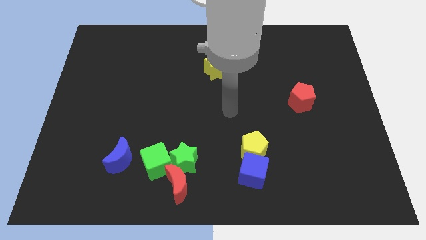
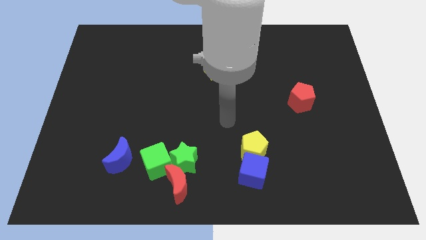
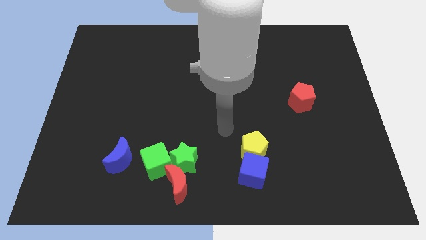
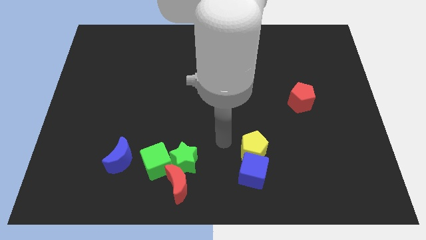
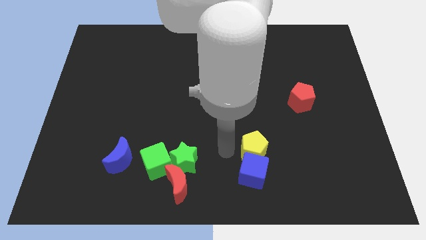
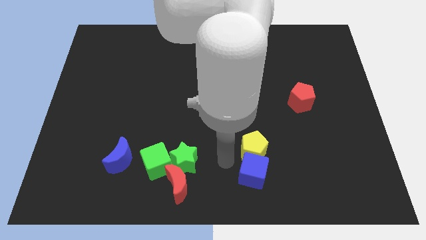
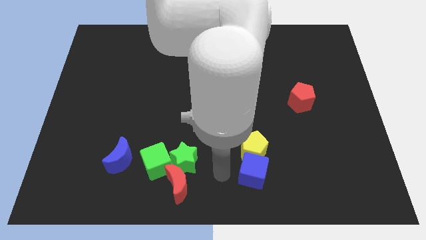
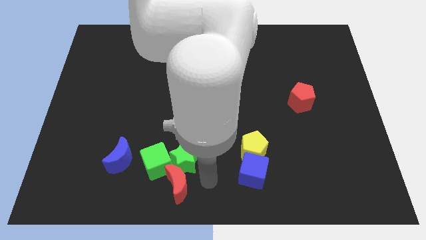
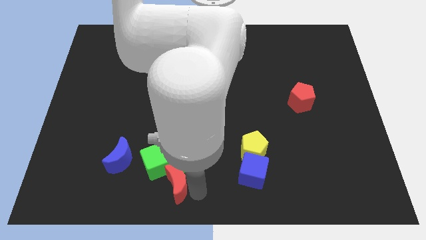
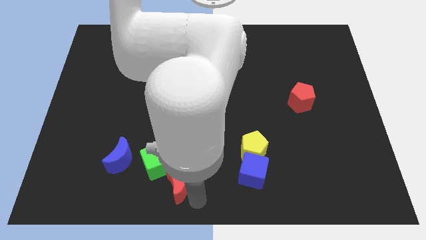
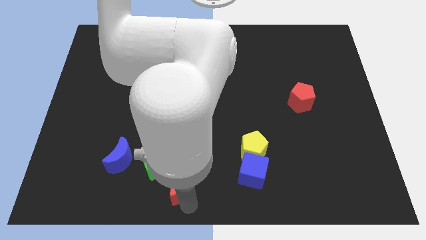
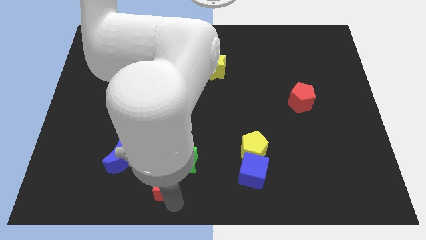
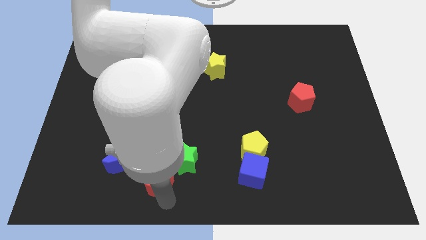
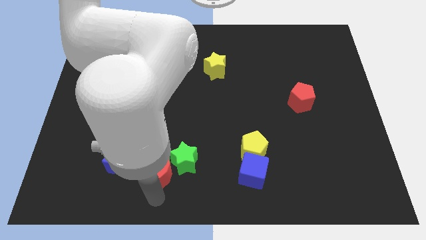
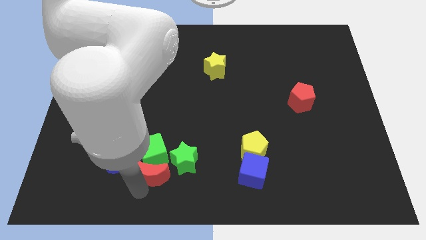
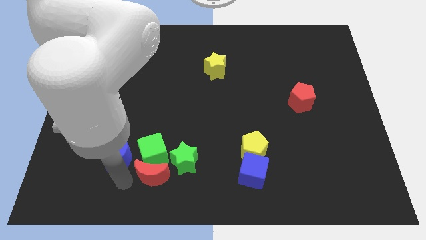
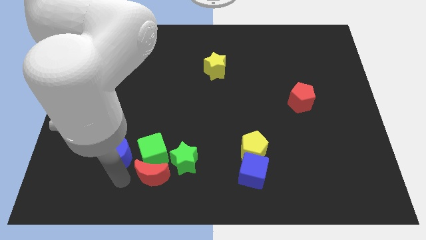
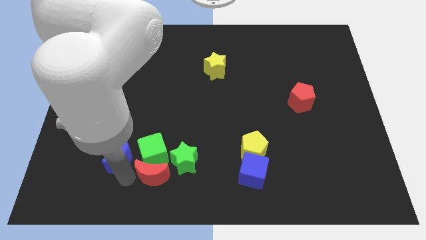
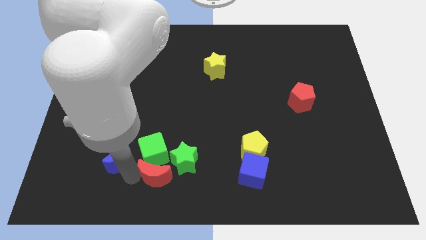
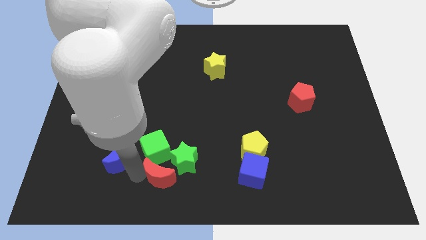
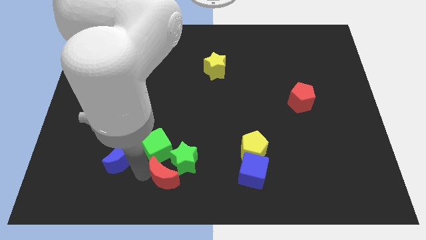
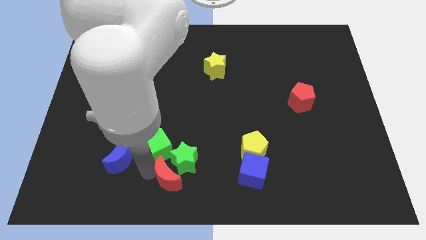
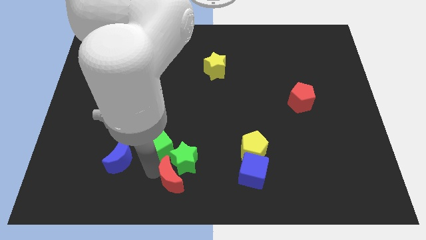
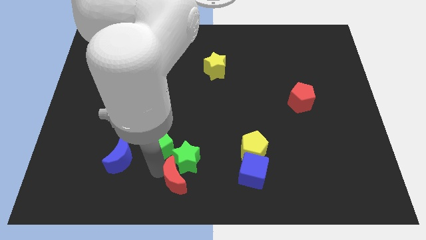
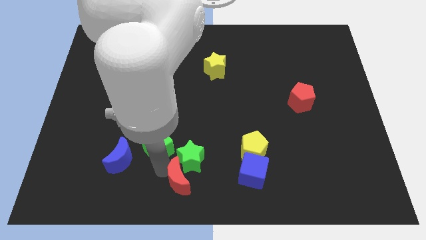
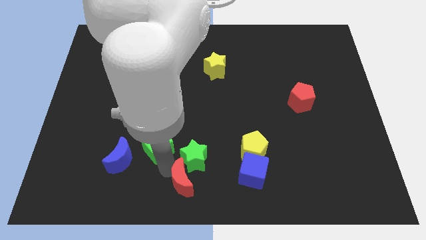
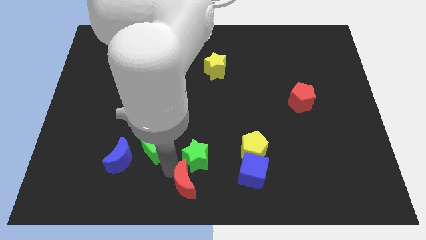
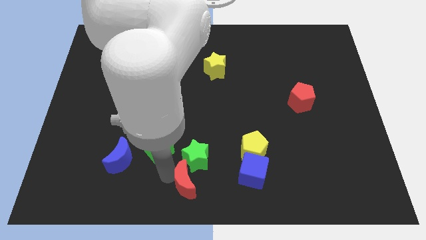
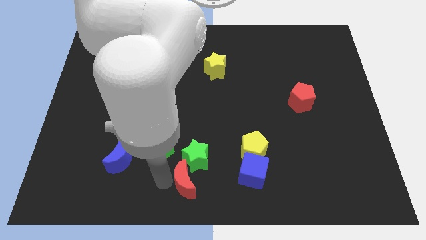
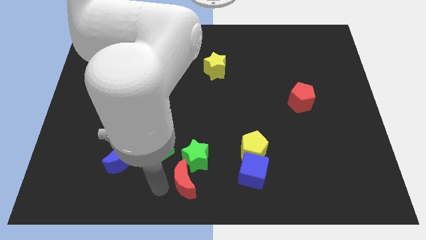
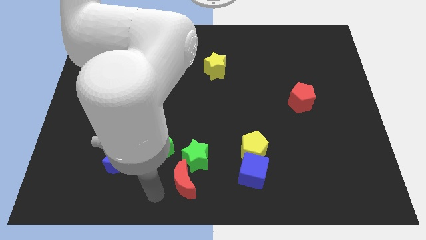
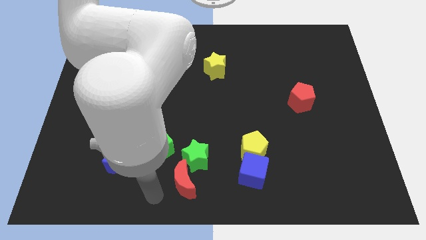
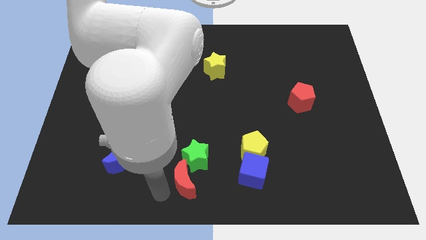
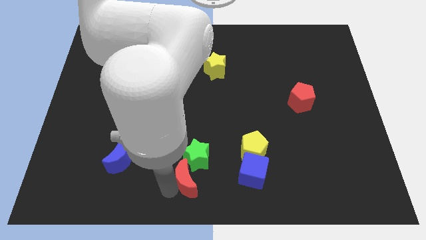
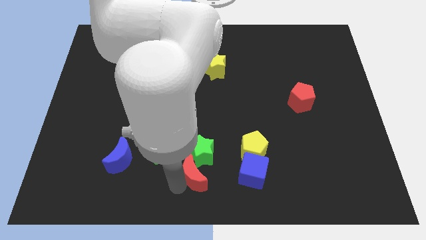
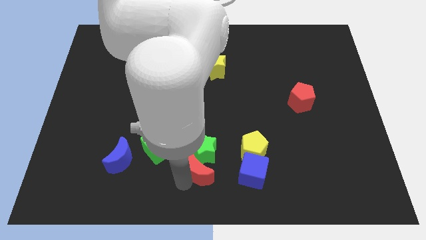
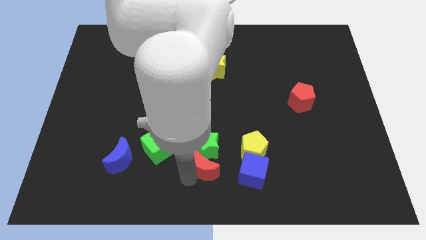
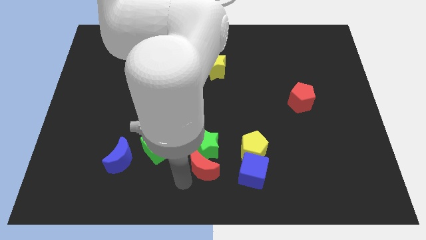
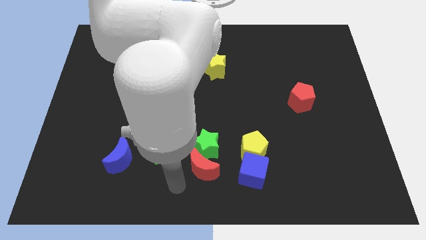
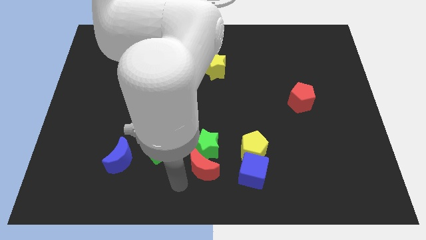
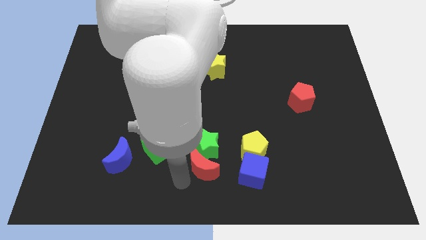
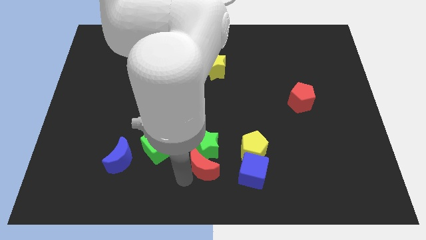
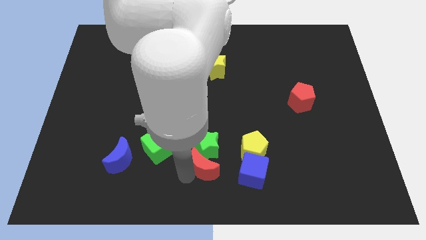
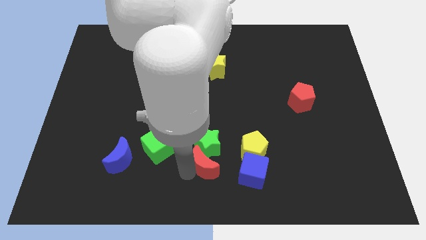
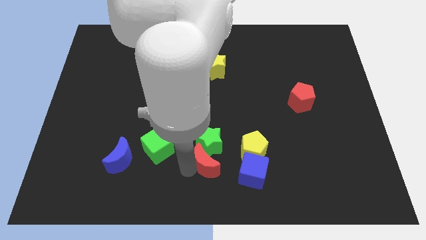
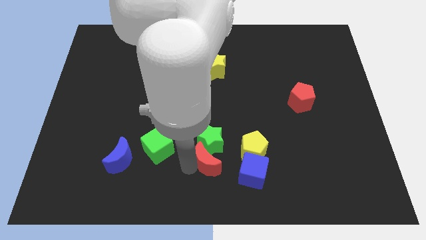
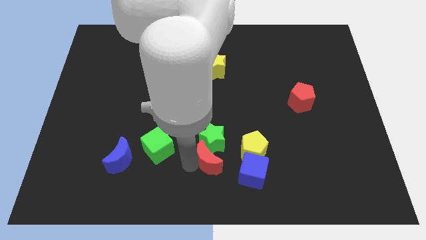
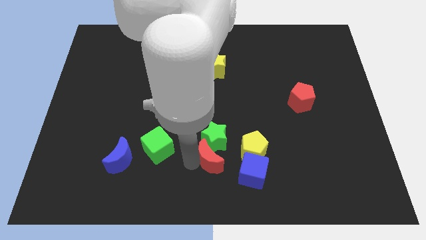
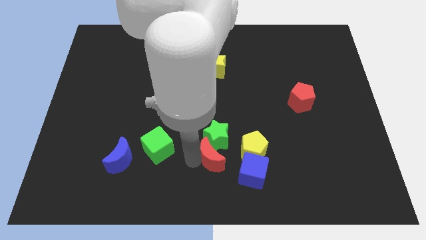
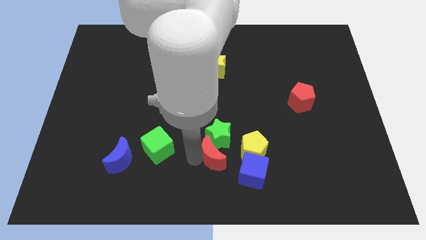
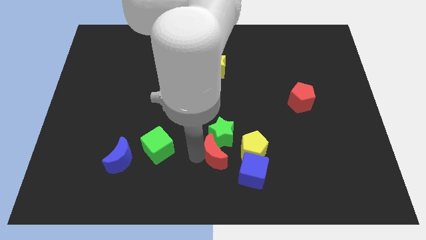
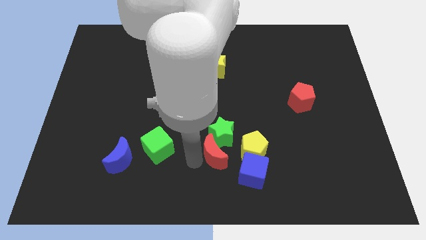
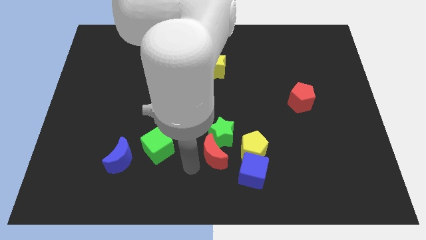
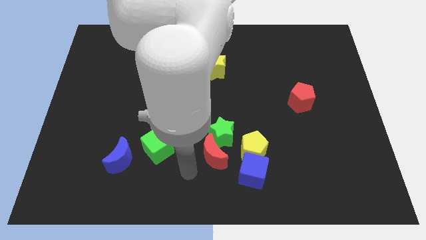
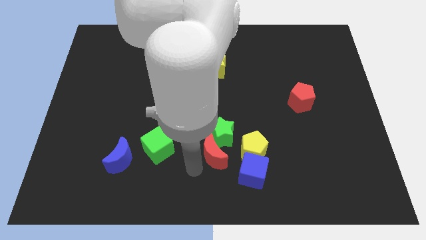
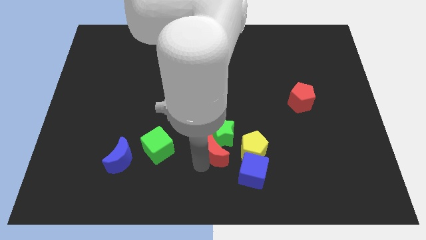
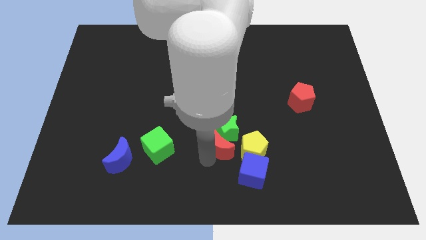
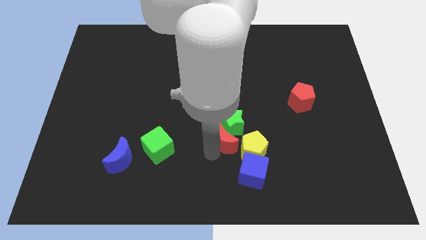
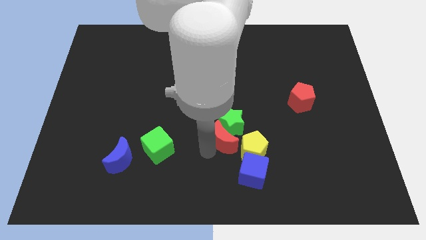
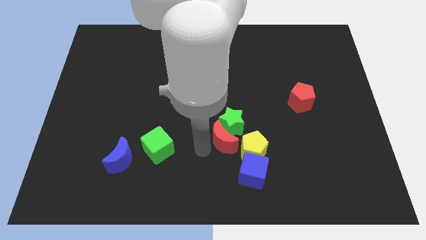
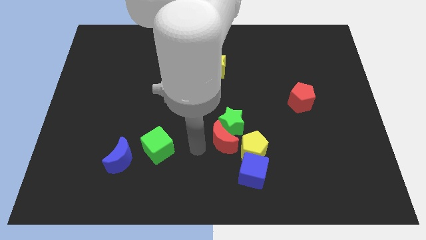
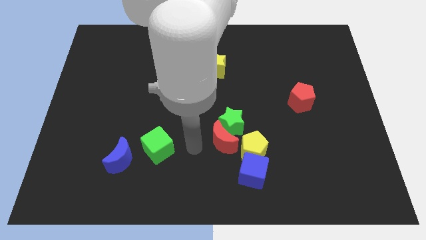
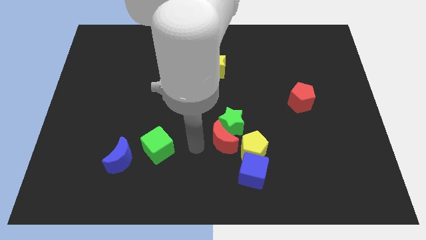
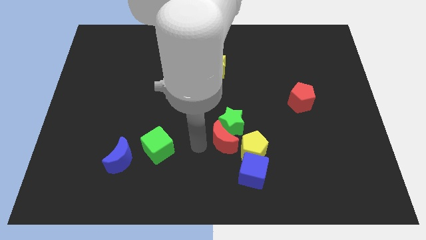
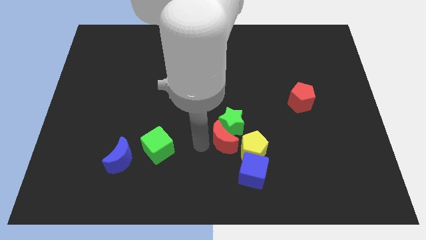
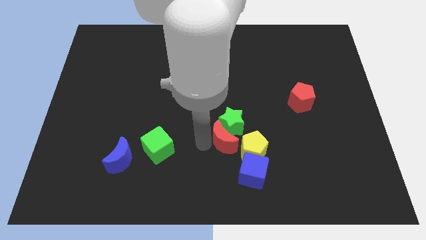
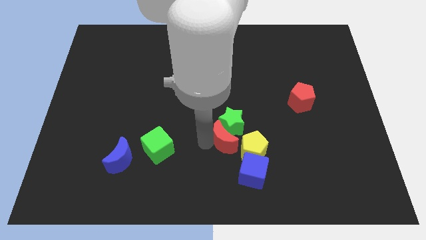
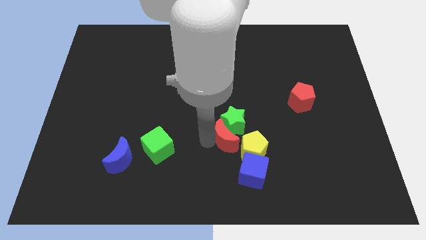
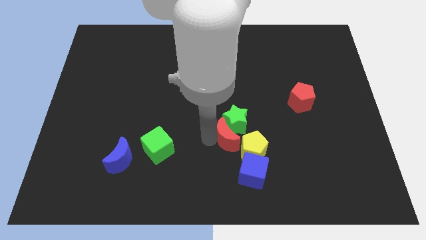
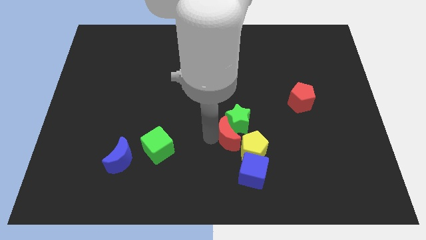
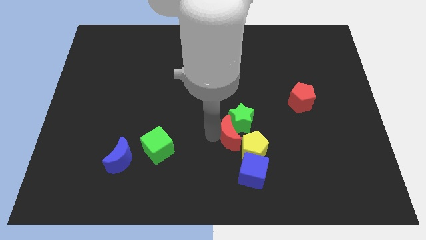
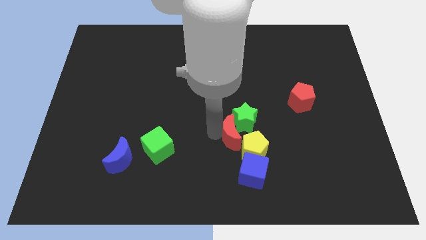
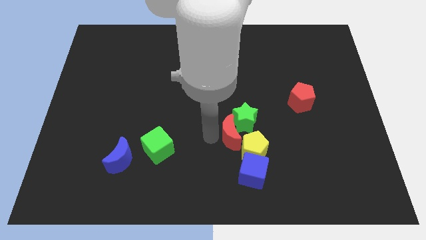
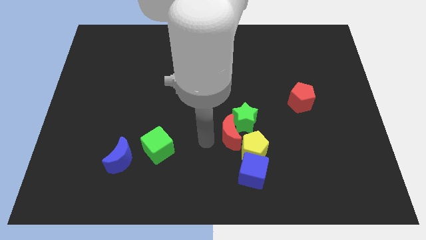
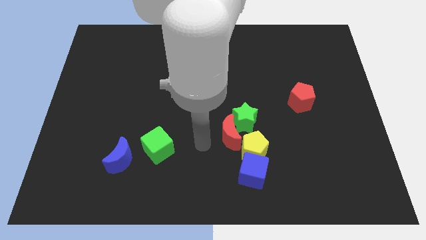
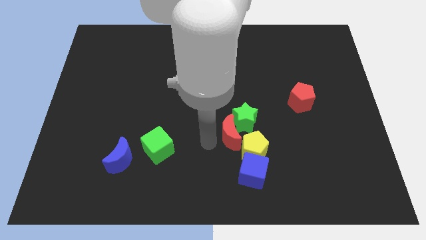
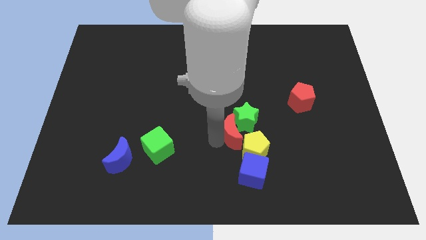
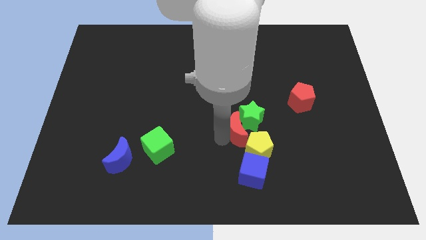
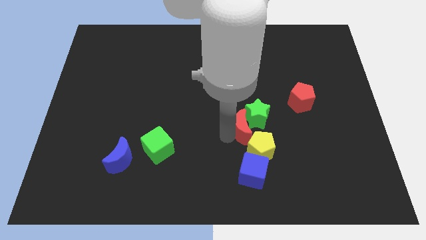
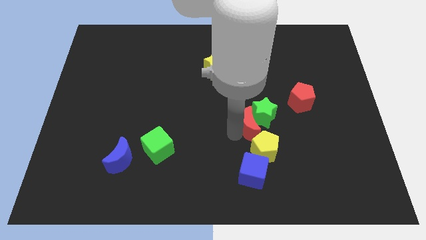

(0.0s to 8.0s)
move the red moon upwards and to the right

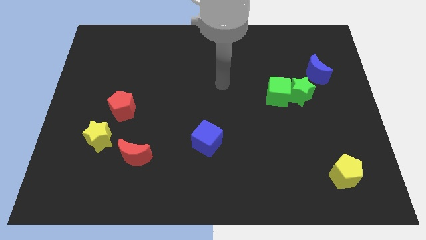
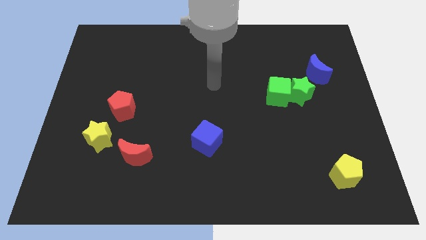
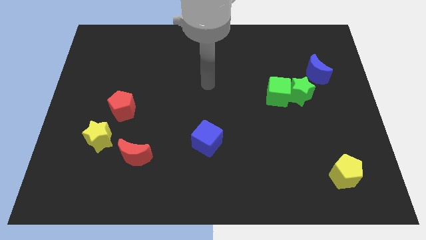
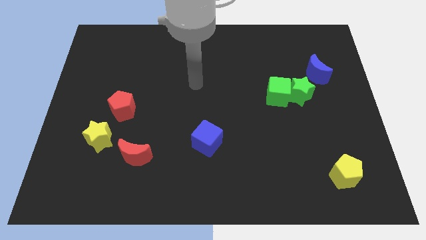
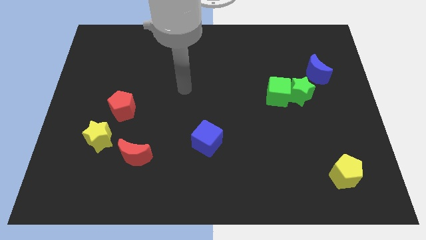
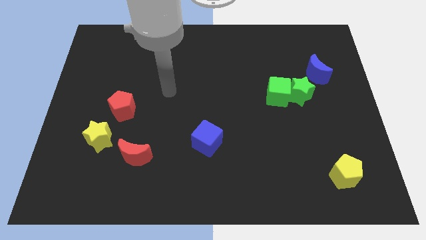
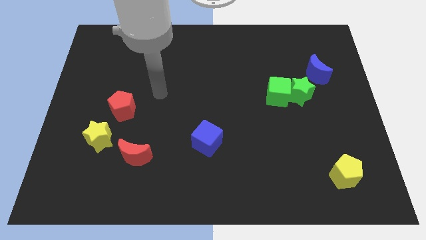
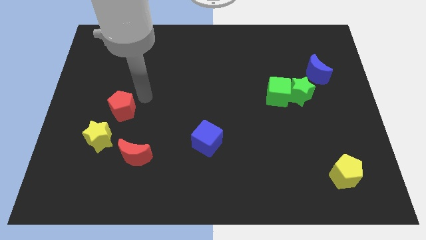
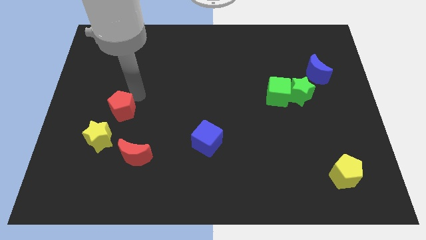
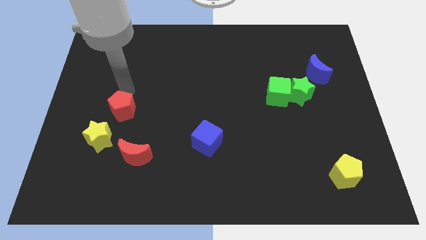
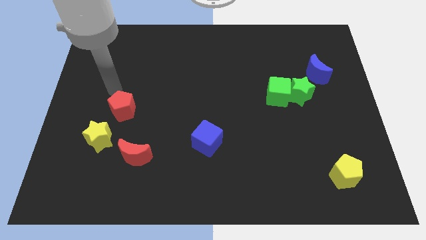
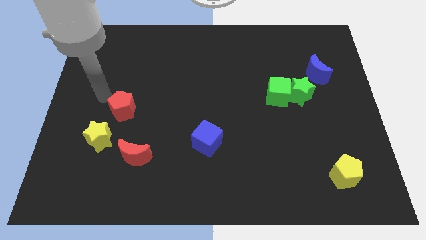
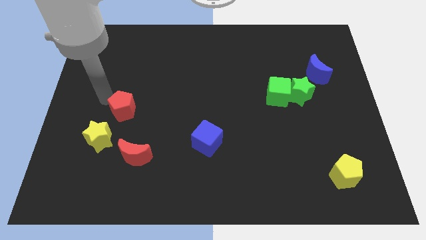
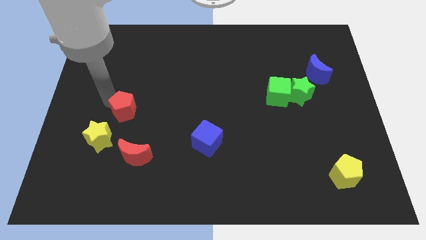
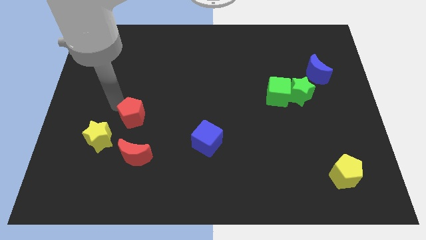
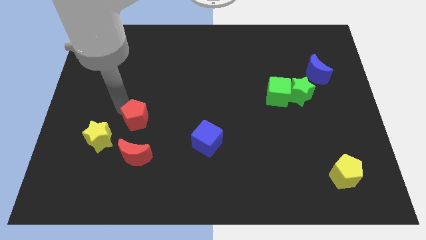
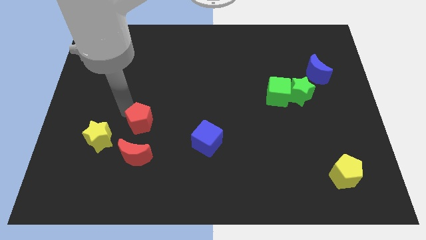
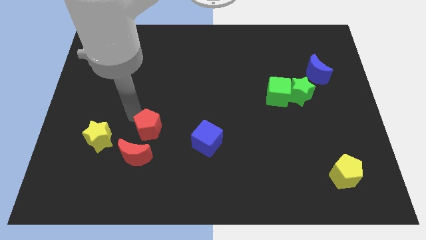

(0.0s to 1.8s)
move the red pentagon a bit downwards and then to the right
